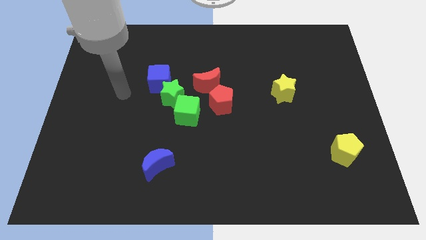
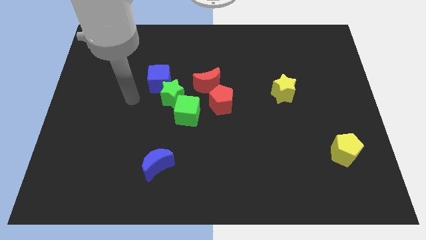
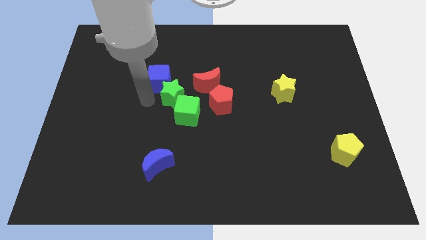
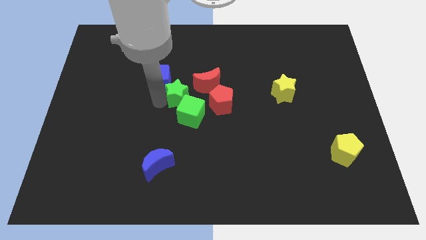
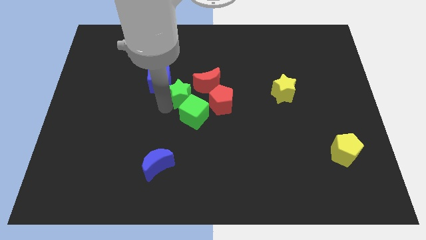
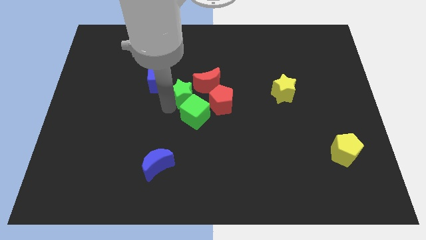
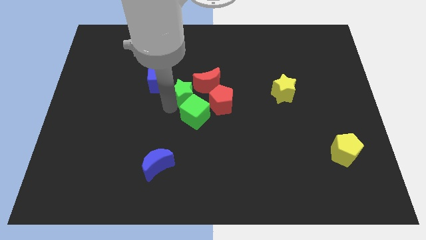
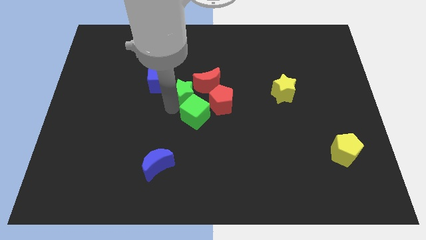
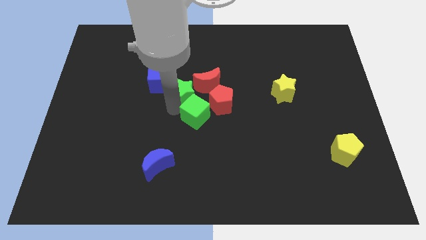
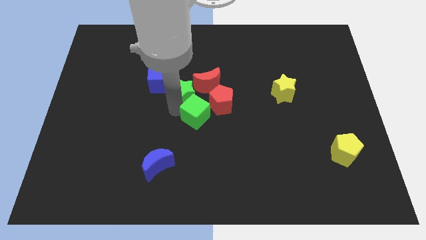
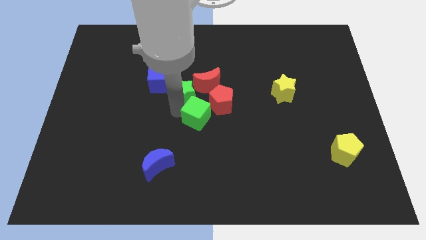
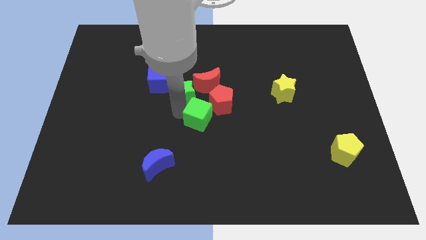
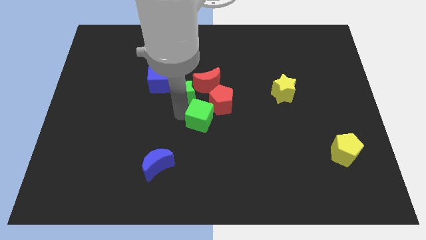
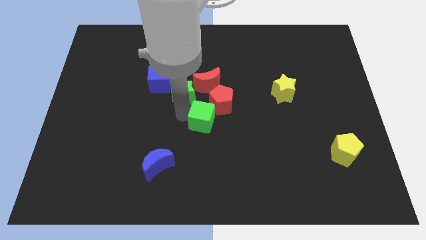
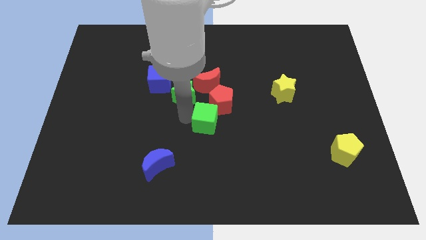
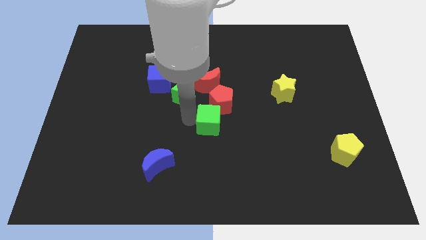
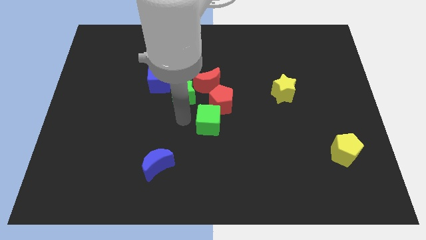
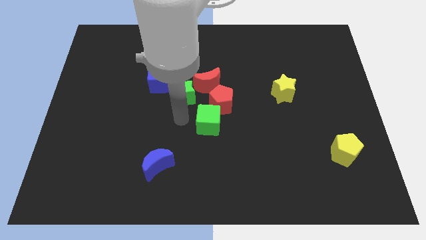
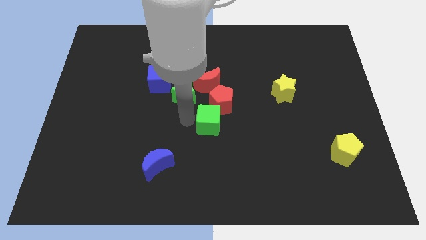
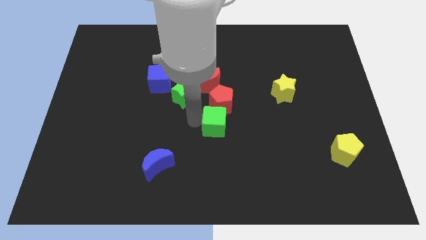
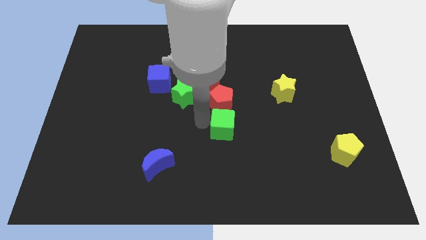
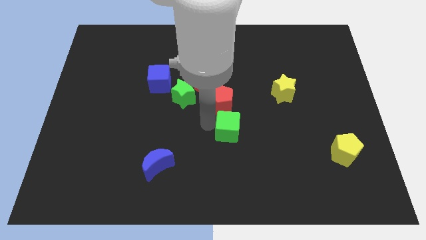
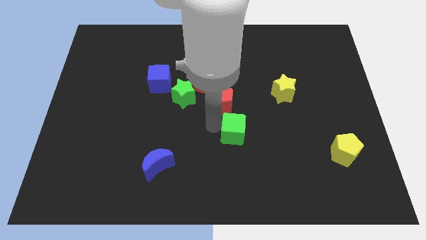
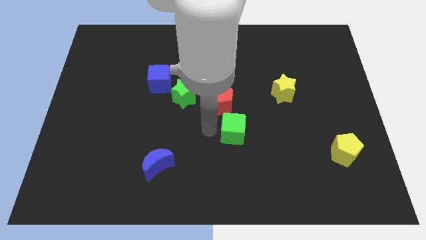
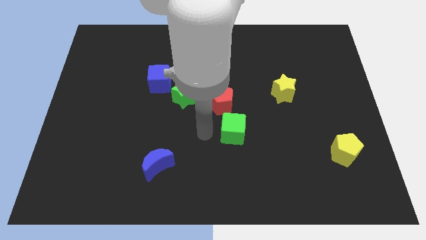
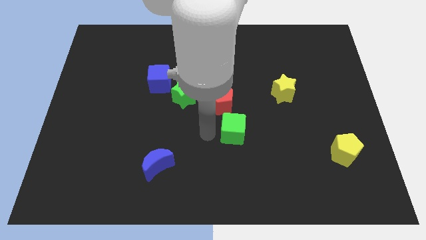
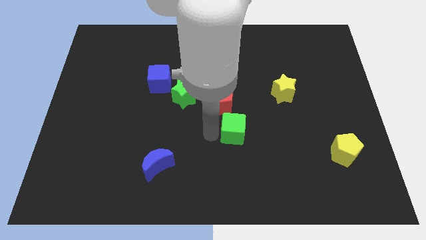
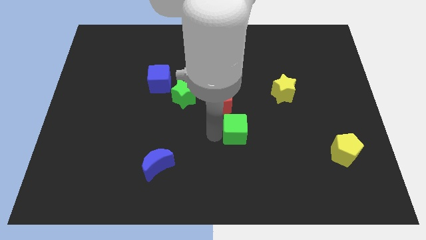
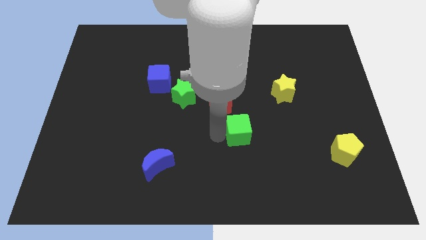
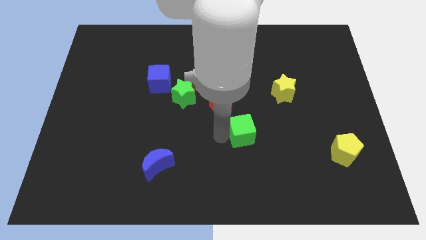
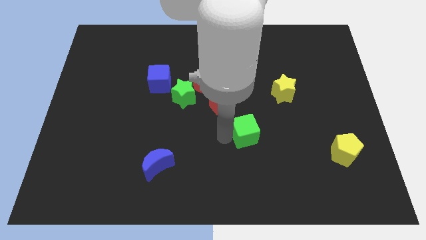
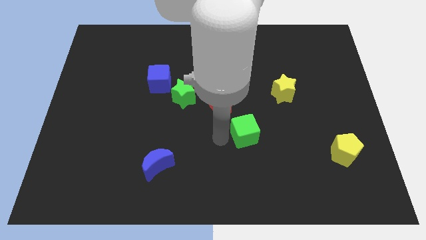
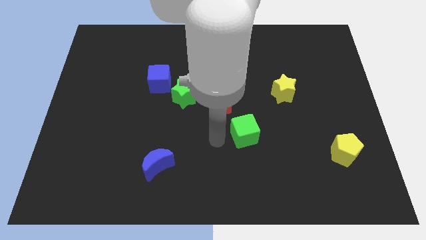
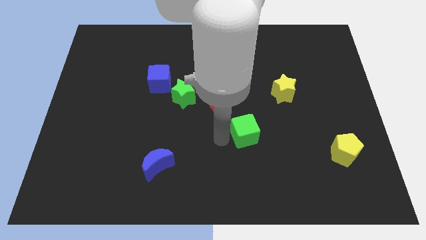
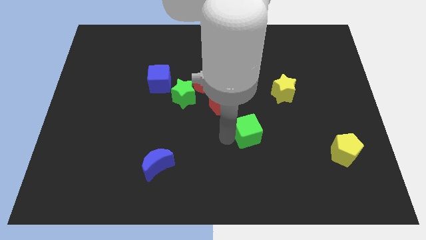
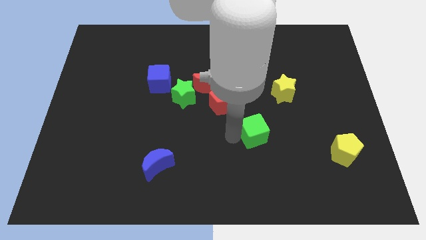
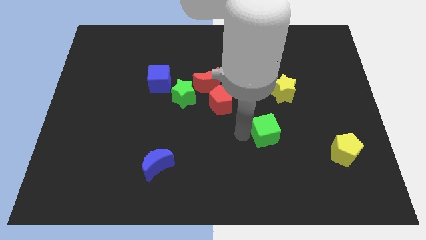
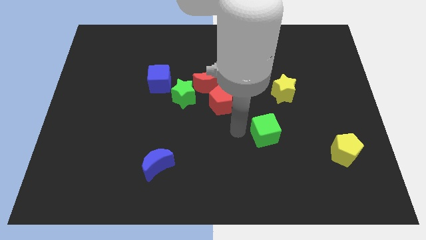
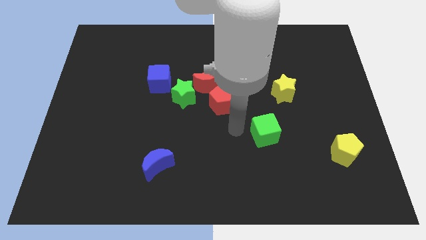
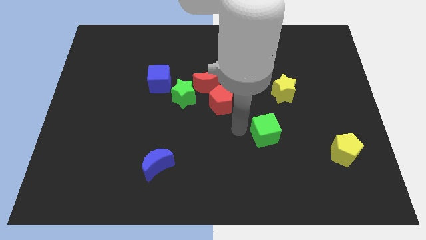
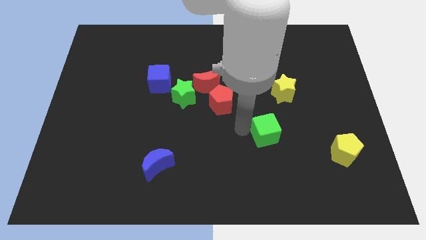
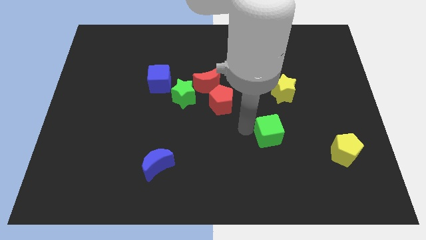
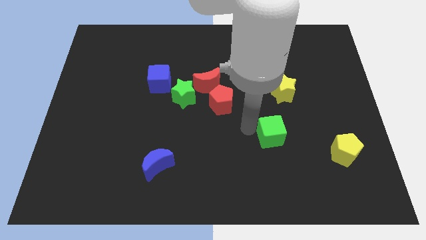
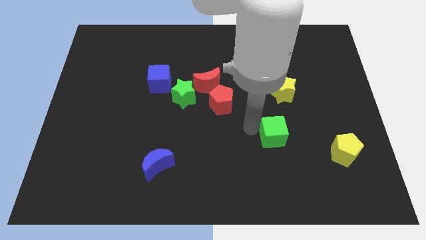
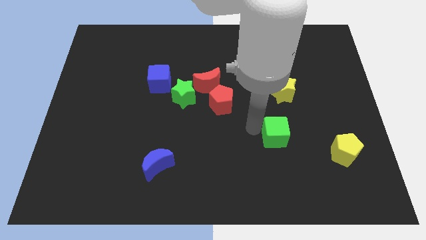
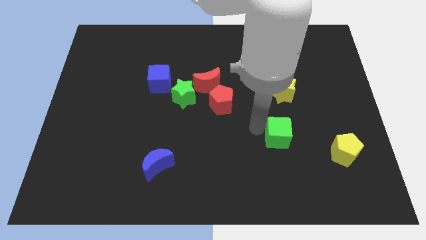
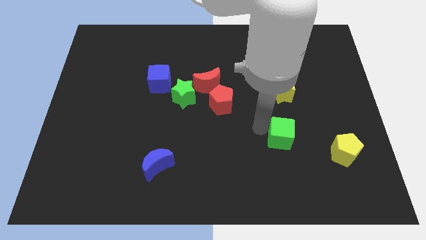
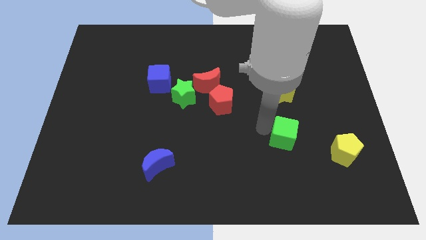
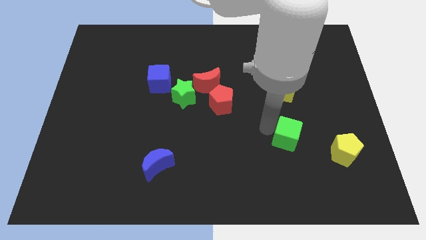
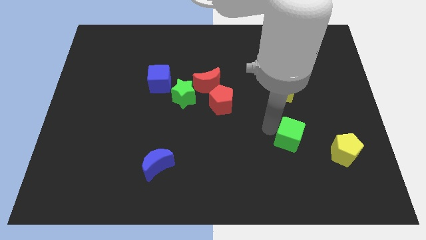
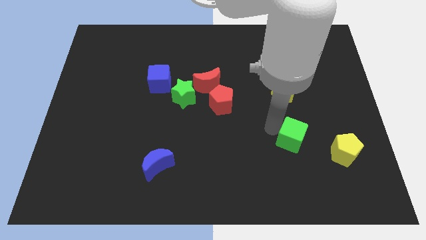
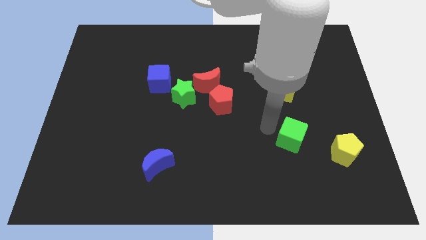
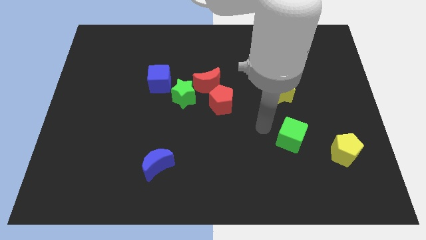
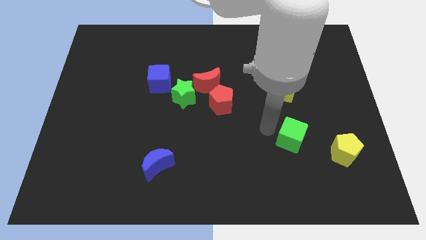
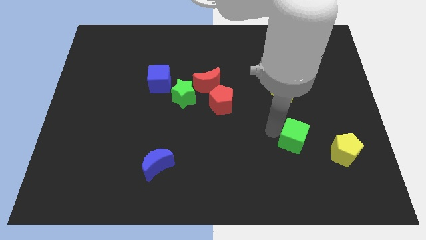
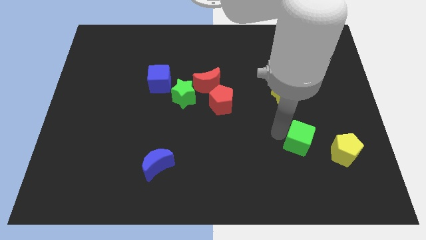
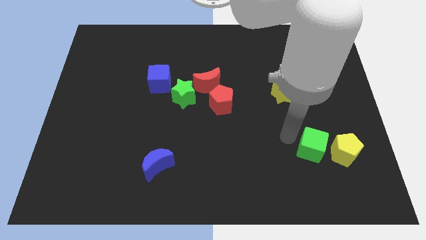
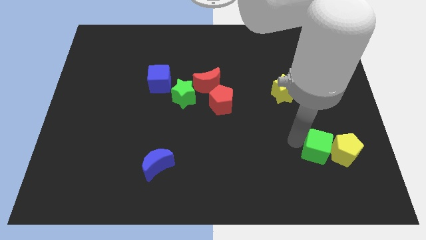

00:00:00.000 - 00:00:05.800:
slide the green cube next to the yellow pentagon

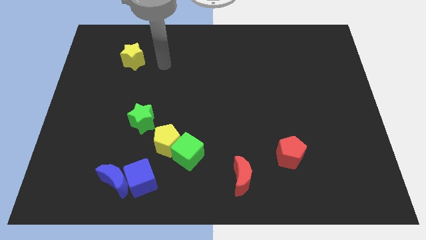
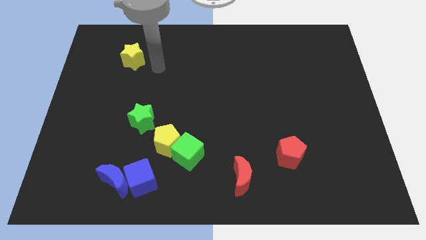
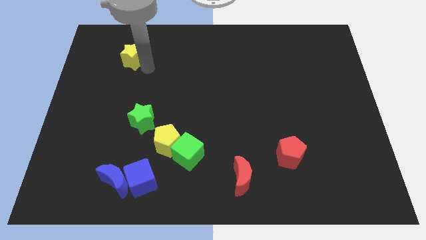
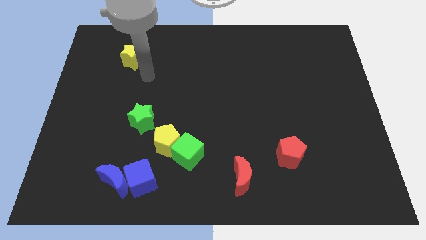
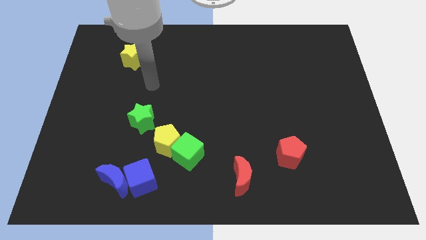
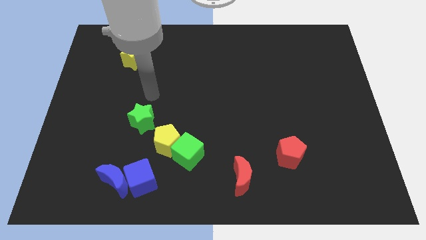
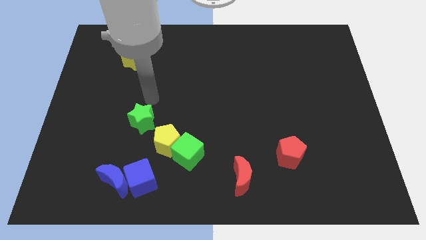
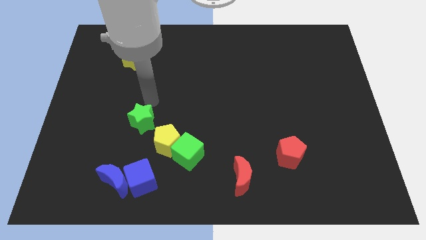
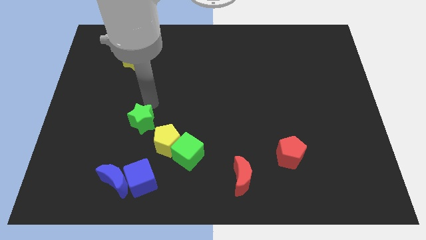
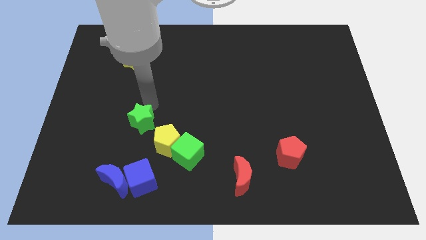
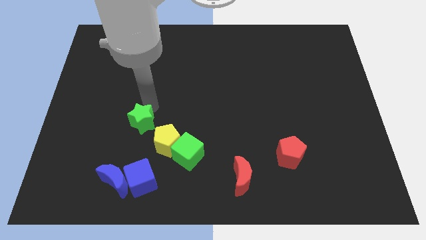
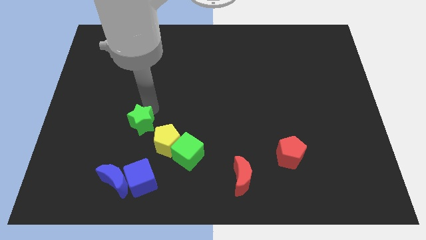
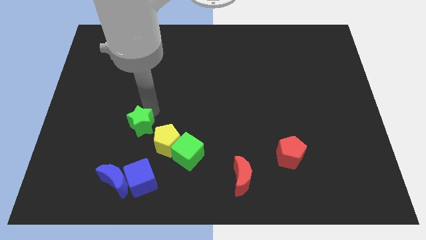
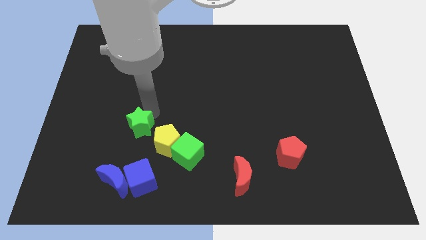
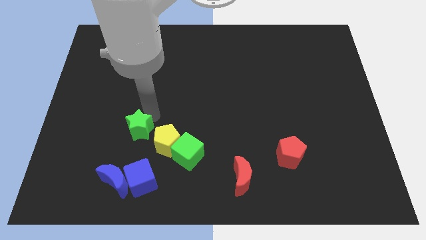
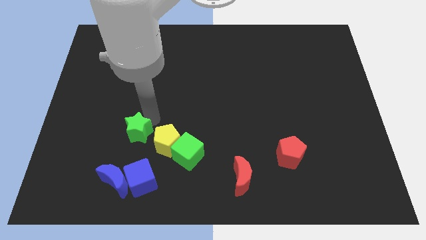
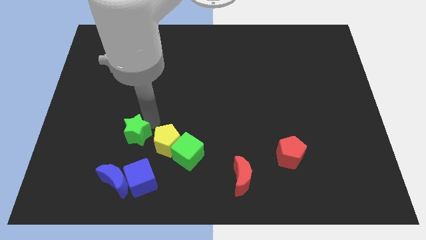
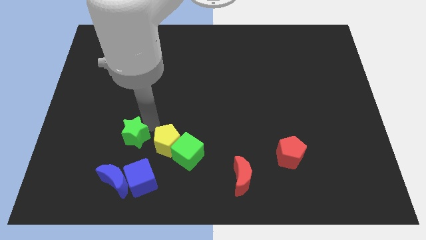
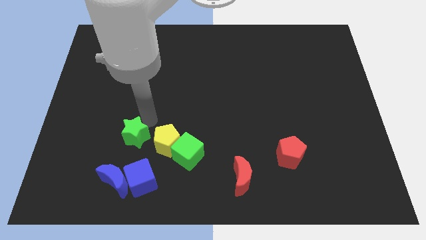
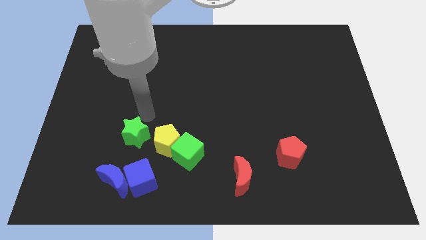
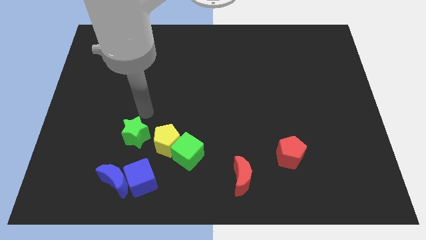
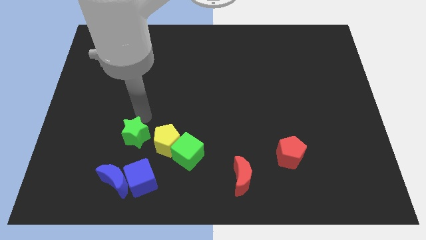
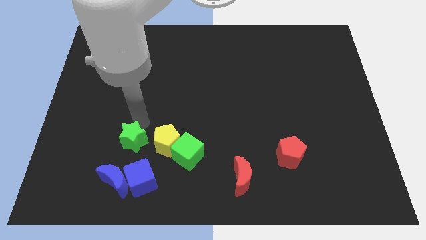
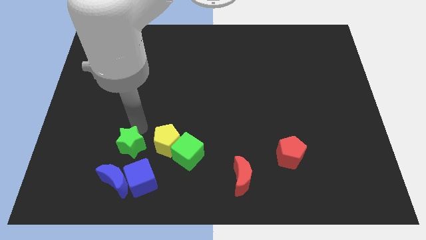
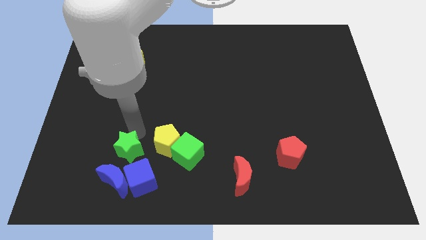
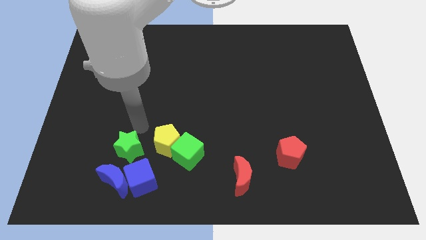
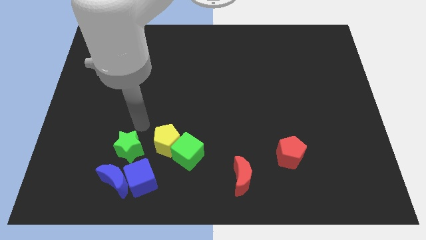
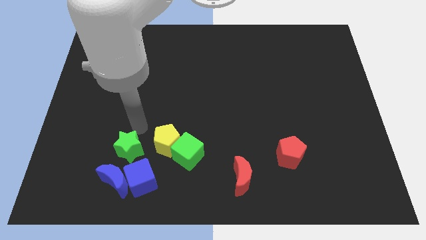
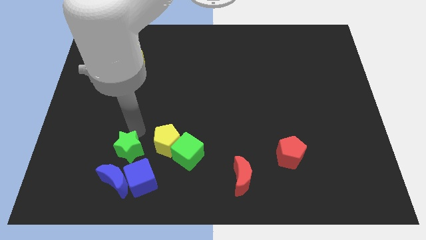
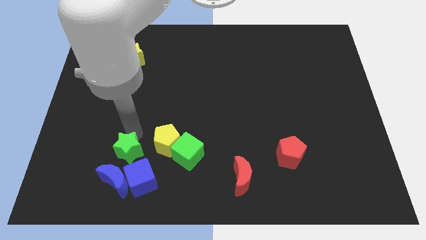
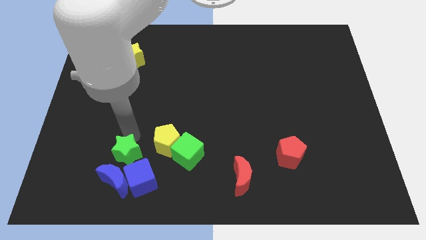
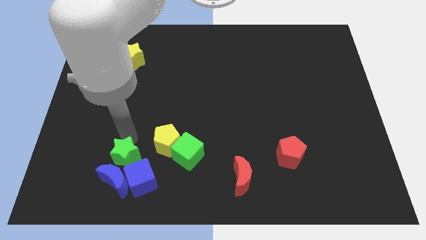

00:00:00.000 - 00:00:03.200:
put the green star next to the blue moon
